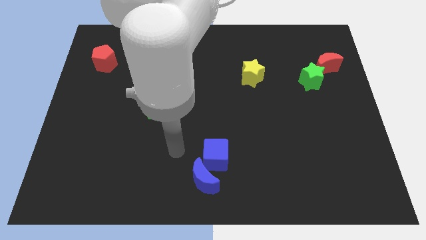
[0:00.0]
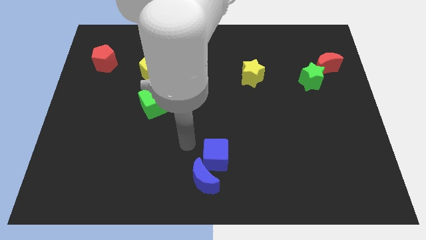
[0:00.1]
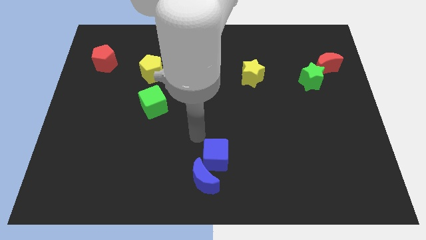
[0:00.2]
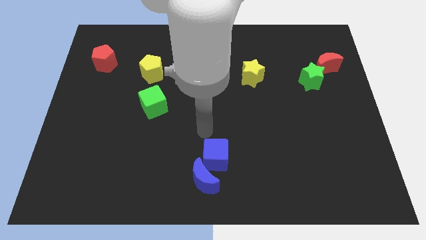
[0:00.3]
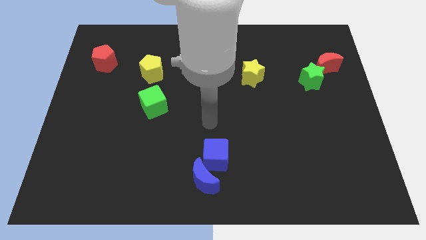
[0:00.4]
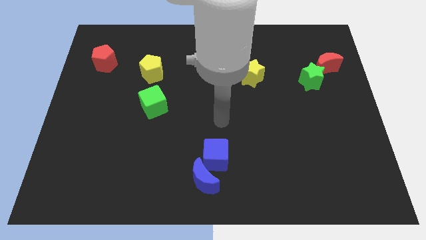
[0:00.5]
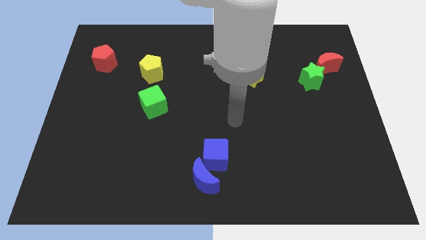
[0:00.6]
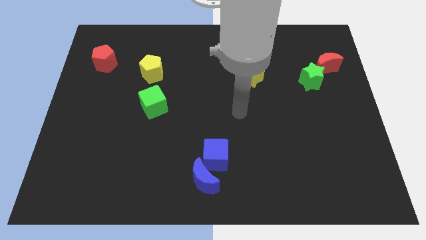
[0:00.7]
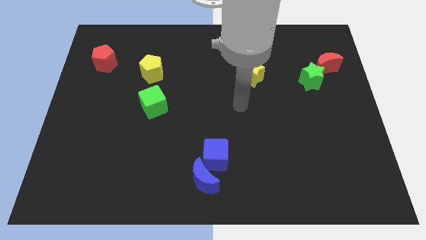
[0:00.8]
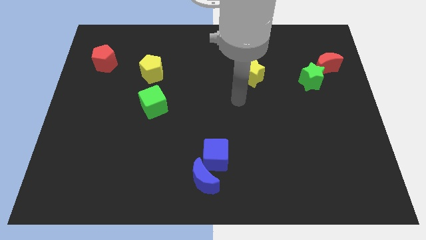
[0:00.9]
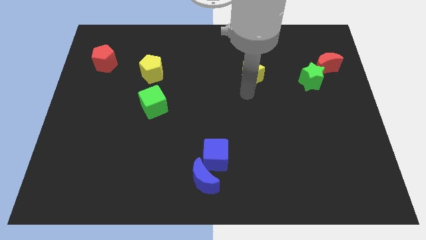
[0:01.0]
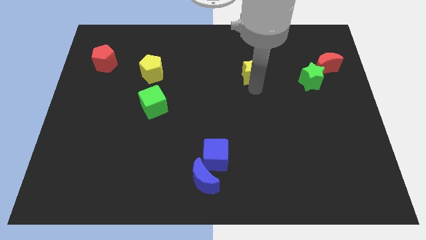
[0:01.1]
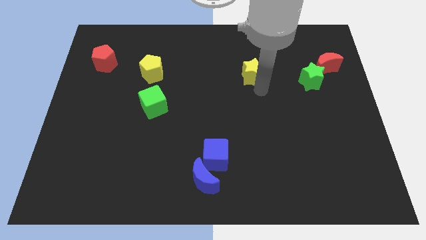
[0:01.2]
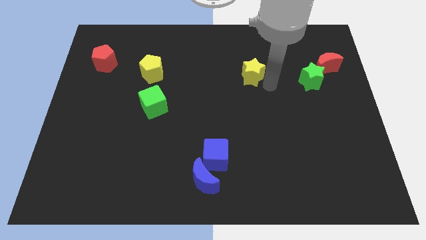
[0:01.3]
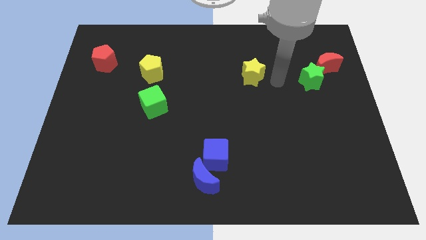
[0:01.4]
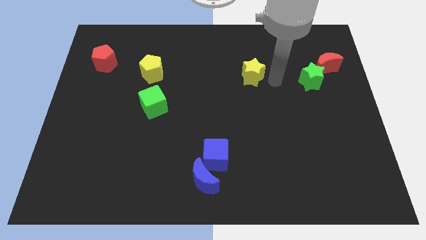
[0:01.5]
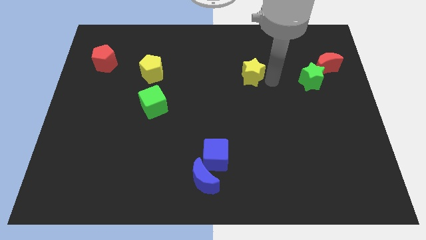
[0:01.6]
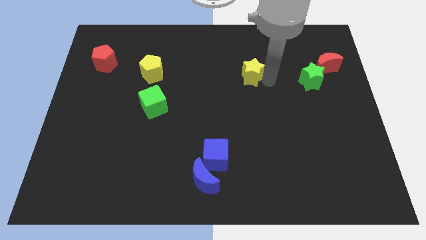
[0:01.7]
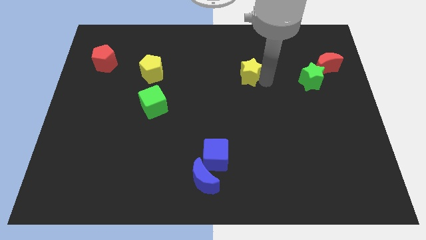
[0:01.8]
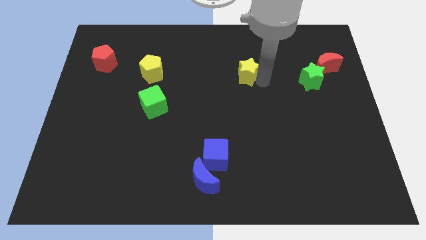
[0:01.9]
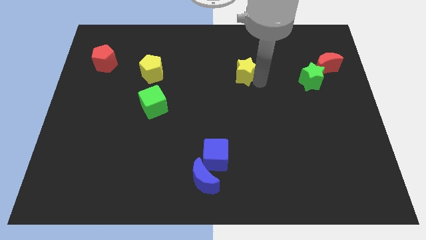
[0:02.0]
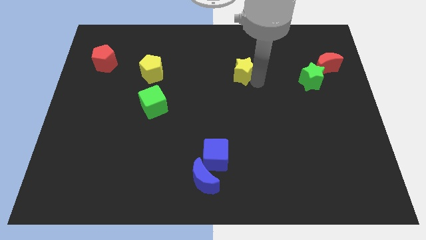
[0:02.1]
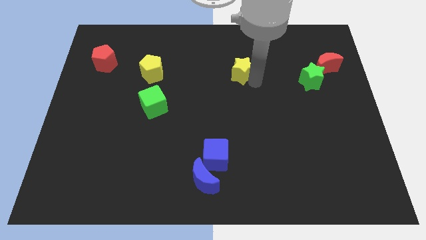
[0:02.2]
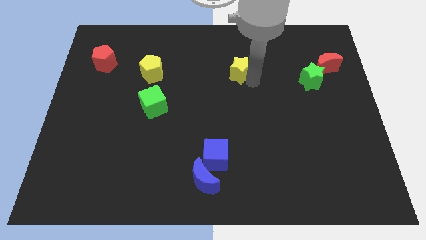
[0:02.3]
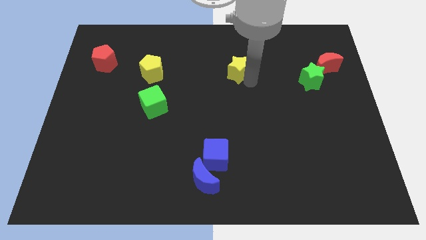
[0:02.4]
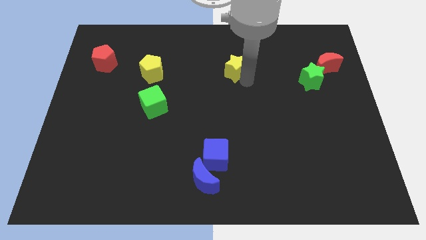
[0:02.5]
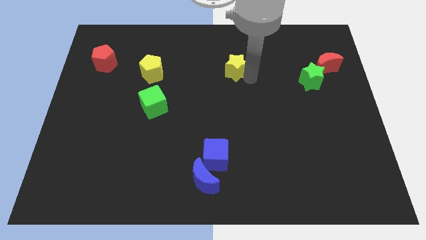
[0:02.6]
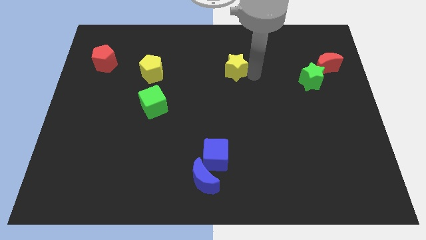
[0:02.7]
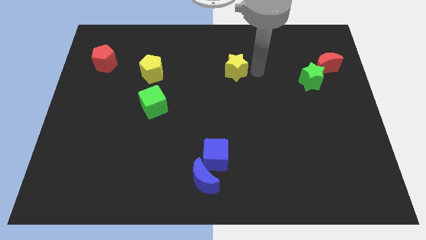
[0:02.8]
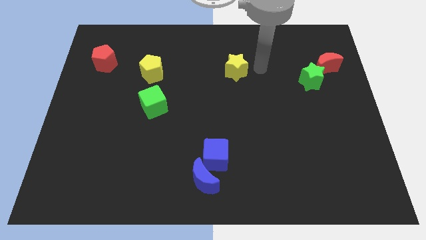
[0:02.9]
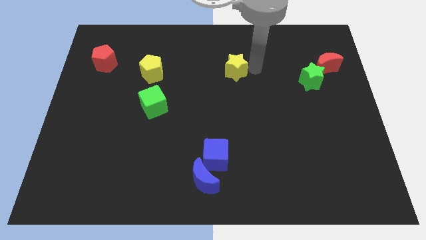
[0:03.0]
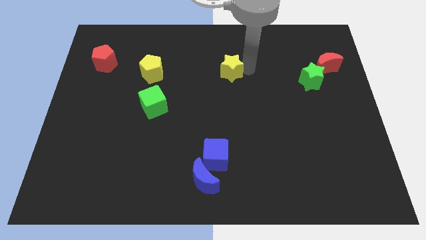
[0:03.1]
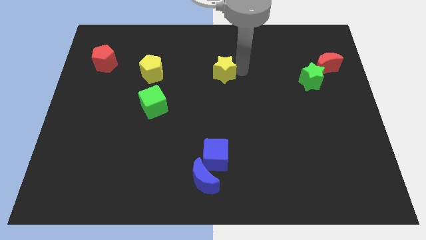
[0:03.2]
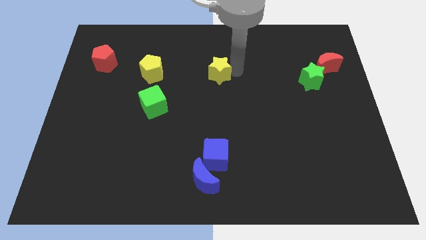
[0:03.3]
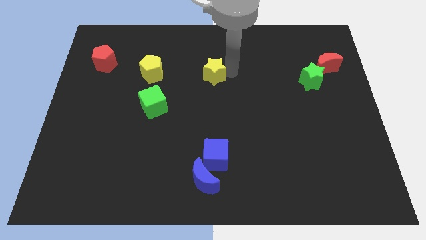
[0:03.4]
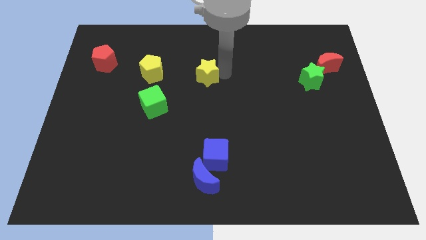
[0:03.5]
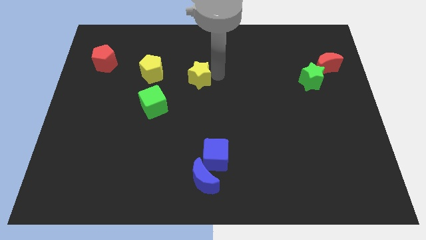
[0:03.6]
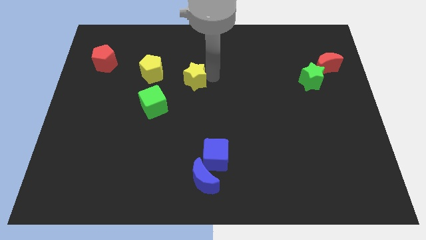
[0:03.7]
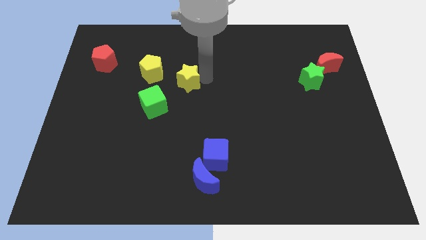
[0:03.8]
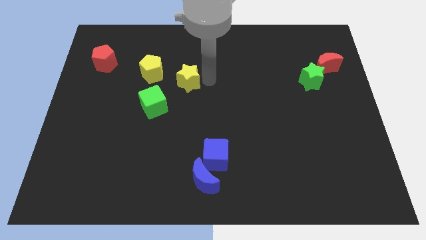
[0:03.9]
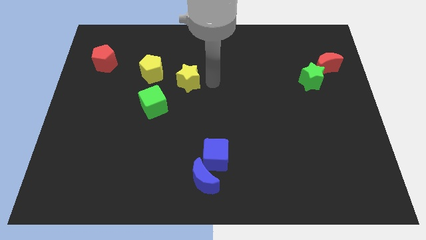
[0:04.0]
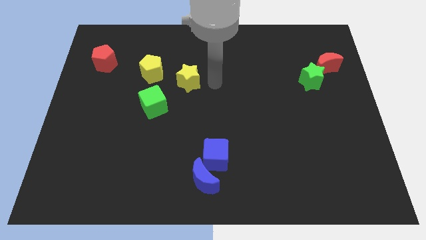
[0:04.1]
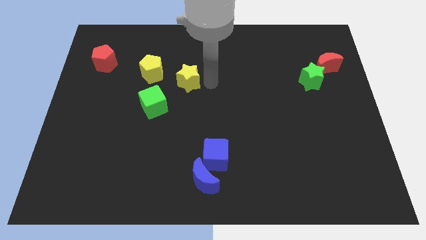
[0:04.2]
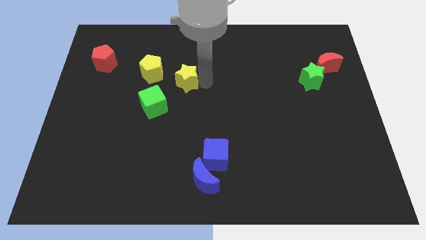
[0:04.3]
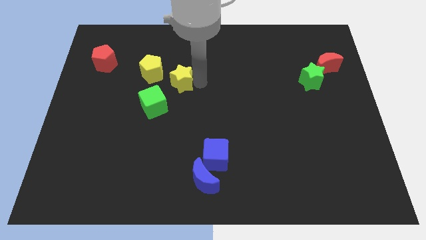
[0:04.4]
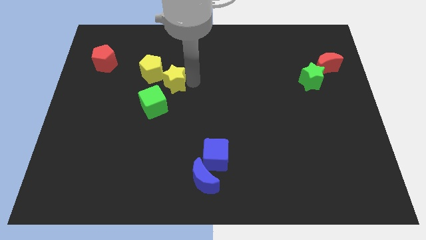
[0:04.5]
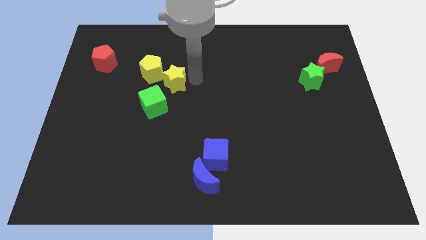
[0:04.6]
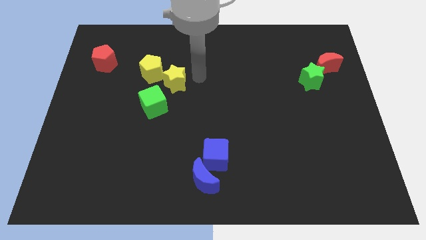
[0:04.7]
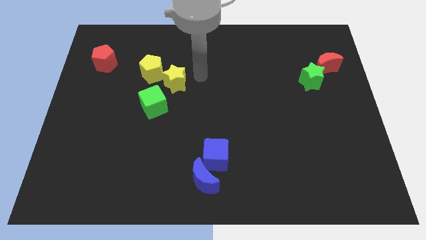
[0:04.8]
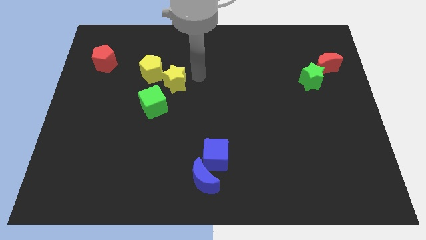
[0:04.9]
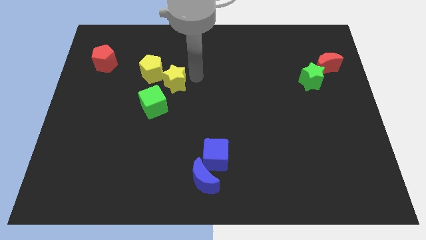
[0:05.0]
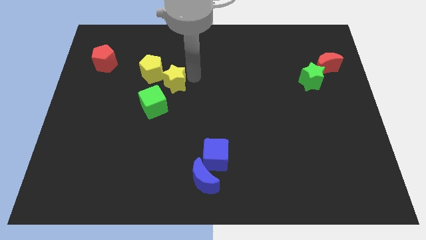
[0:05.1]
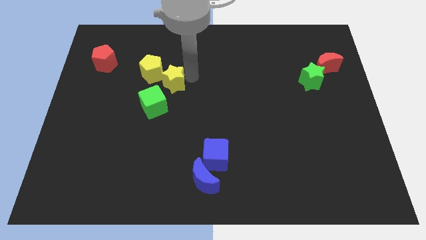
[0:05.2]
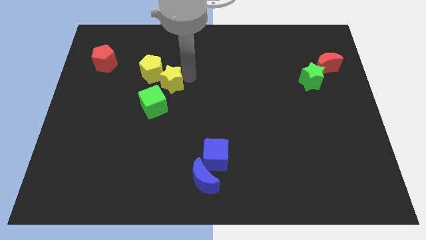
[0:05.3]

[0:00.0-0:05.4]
push the yellow star to the left

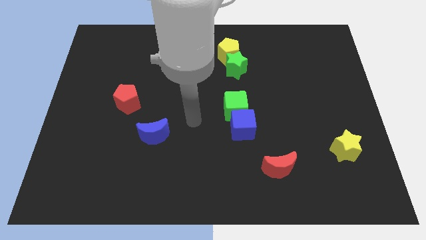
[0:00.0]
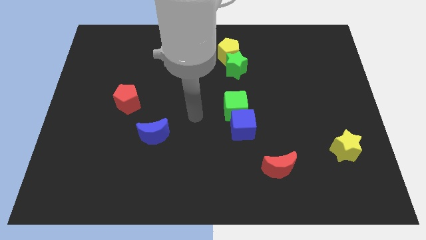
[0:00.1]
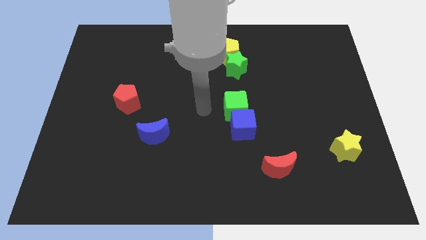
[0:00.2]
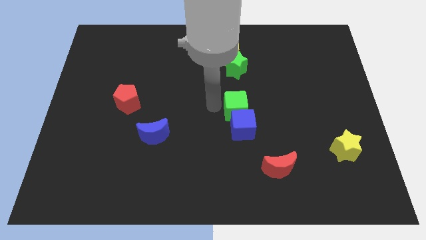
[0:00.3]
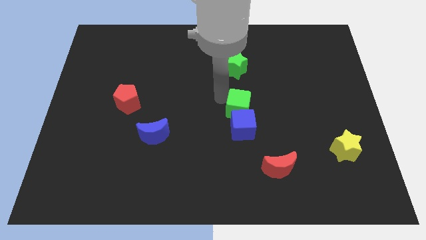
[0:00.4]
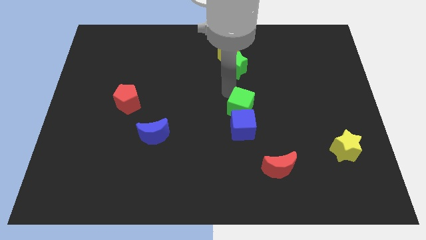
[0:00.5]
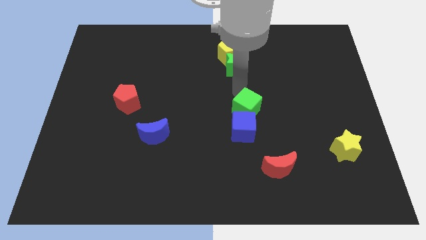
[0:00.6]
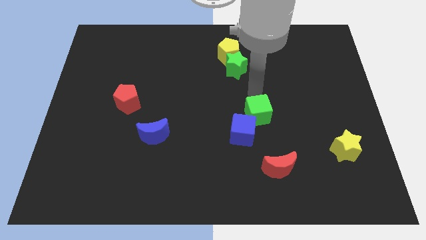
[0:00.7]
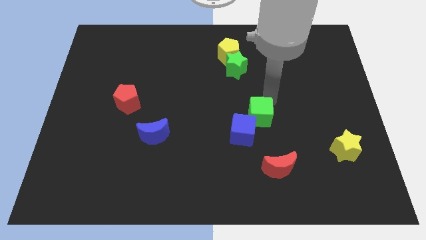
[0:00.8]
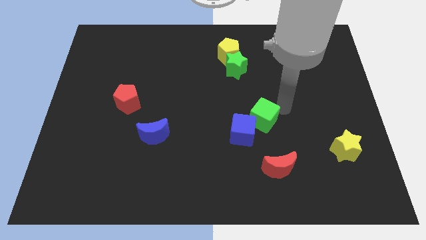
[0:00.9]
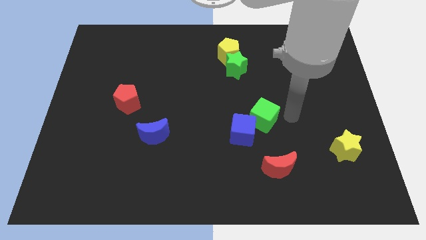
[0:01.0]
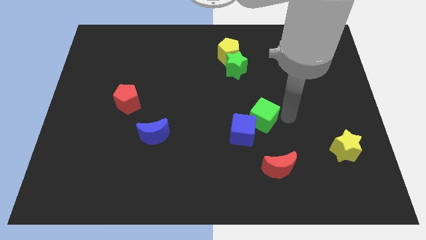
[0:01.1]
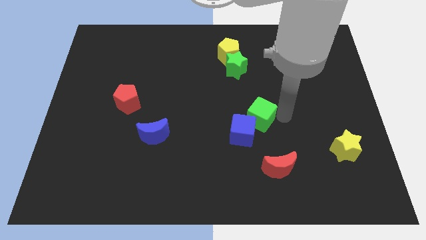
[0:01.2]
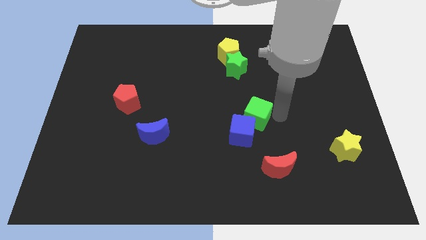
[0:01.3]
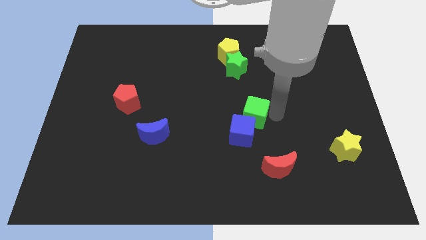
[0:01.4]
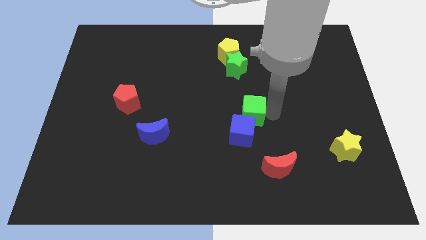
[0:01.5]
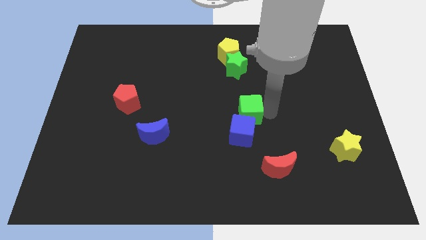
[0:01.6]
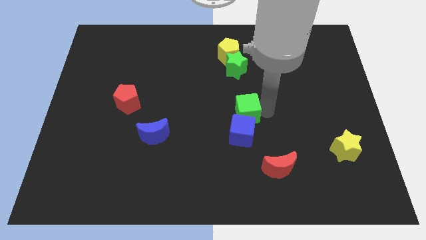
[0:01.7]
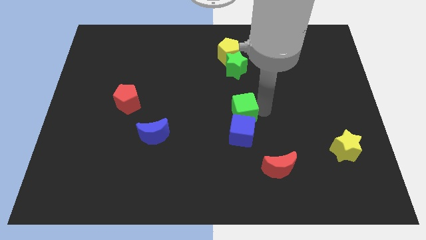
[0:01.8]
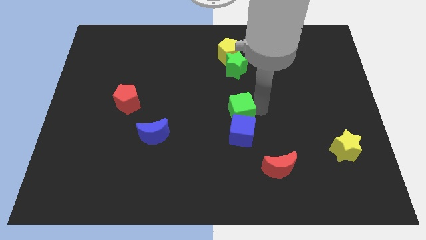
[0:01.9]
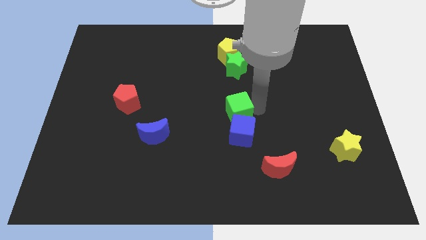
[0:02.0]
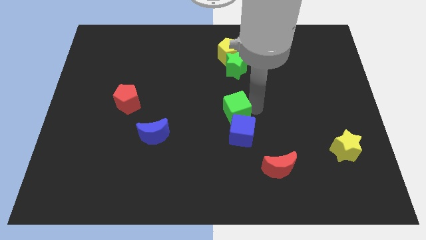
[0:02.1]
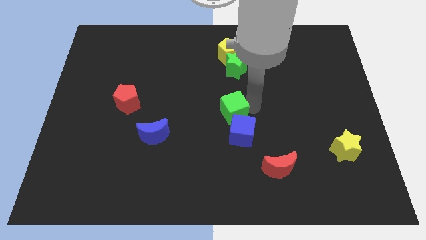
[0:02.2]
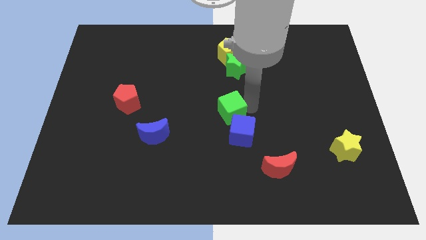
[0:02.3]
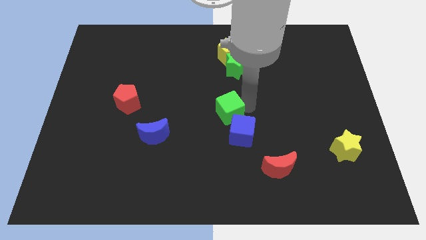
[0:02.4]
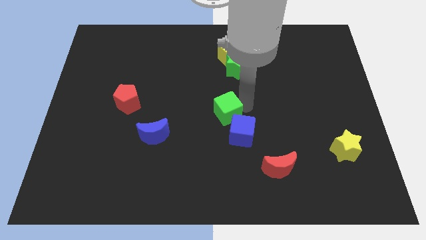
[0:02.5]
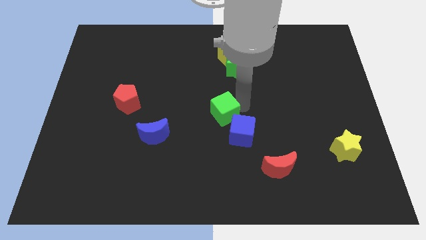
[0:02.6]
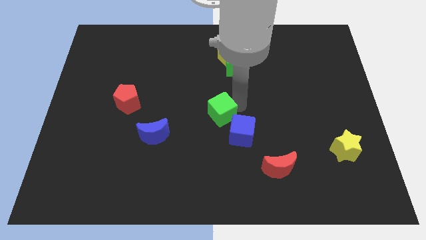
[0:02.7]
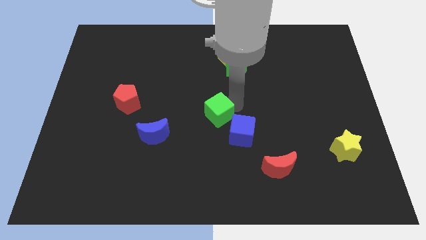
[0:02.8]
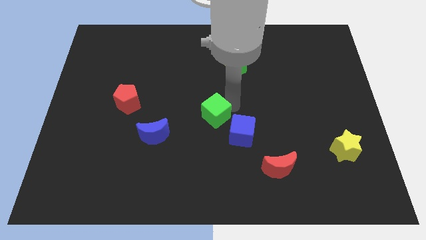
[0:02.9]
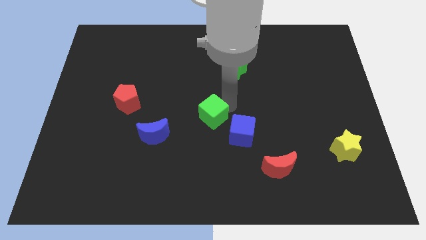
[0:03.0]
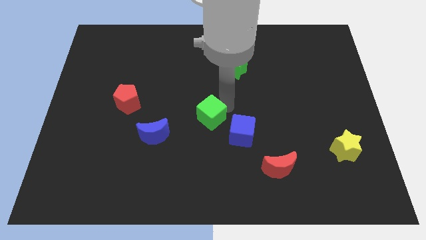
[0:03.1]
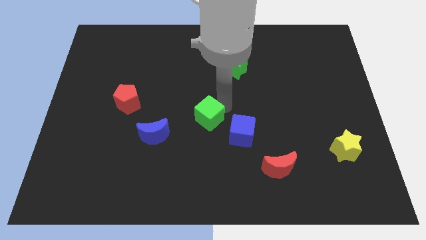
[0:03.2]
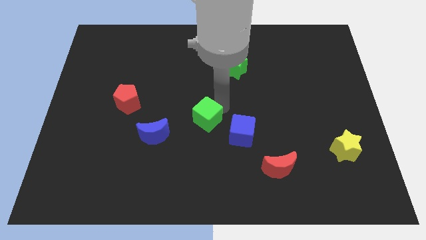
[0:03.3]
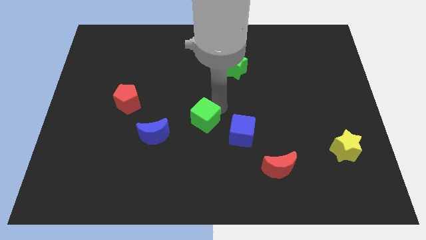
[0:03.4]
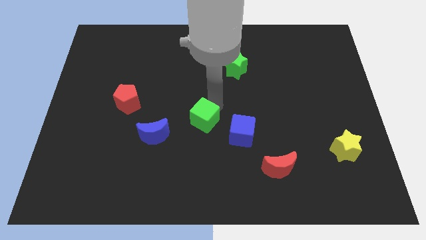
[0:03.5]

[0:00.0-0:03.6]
push the green cube down and left a little
